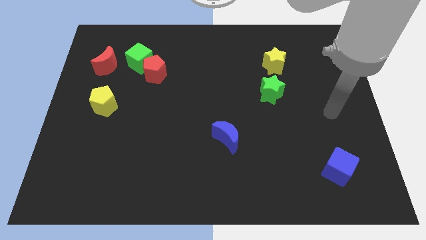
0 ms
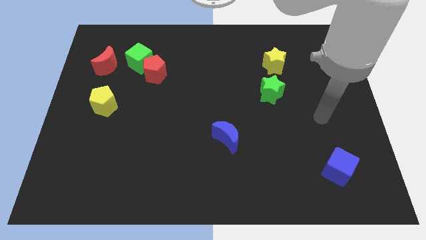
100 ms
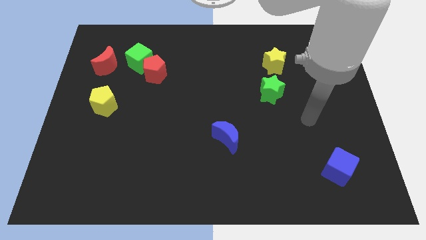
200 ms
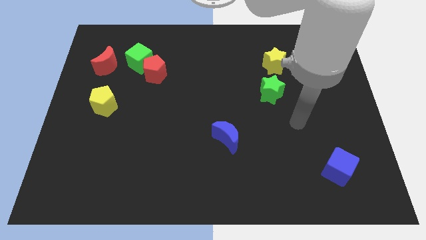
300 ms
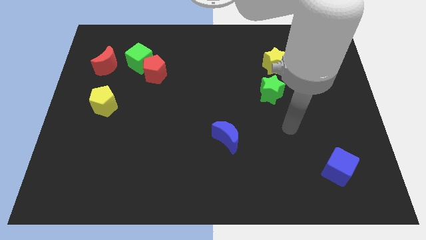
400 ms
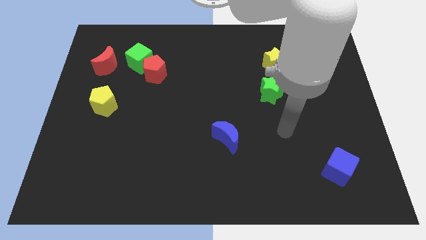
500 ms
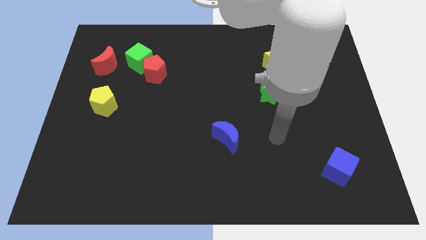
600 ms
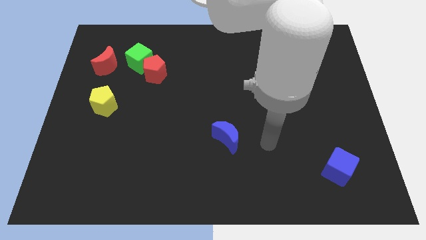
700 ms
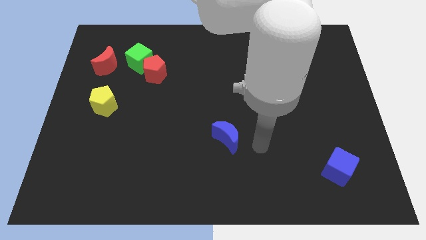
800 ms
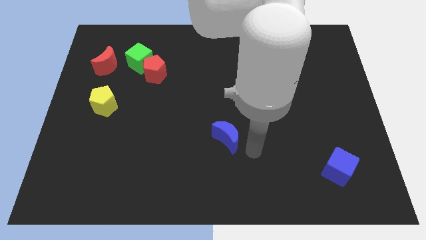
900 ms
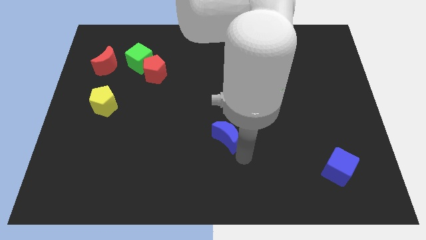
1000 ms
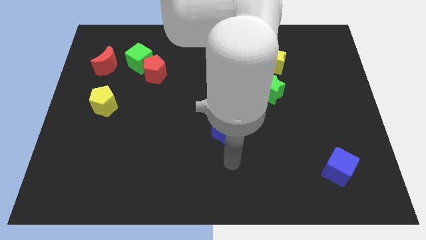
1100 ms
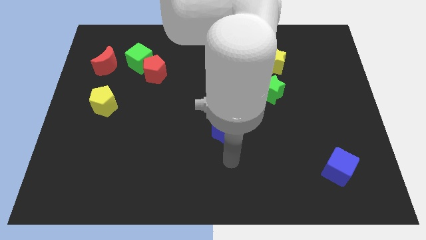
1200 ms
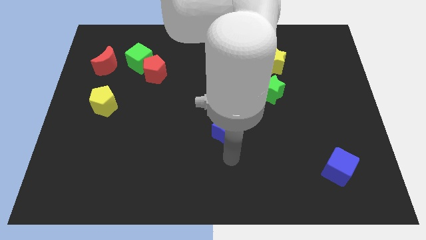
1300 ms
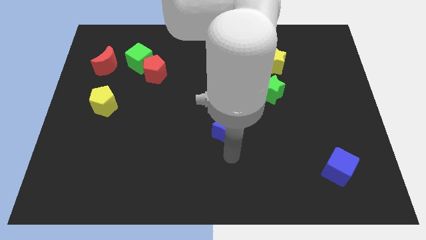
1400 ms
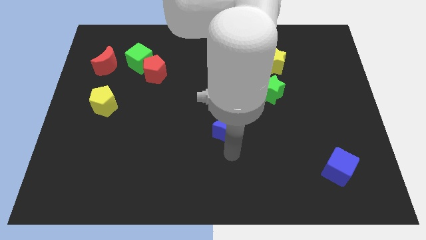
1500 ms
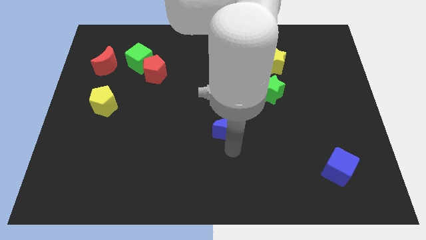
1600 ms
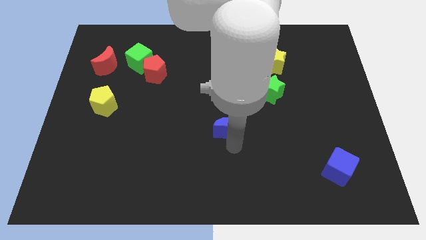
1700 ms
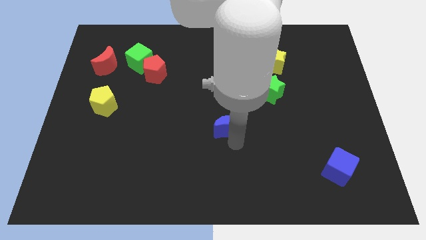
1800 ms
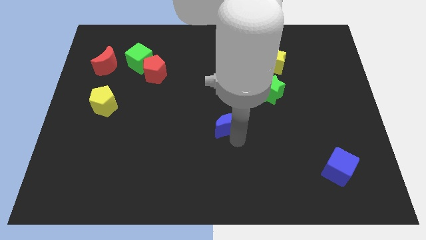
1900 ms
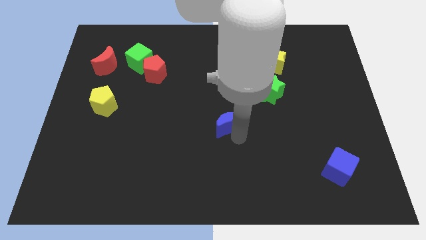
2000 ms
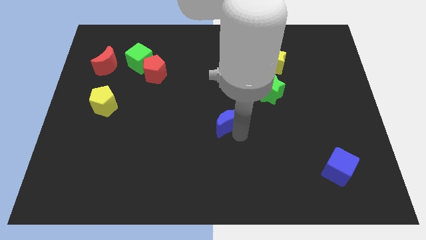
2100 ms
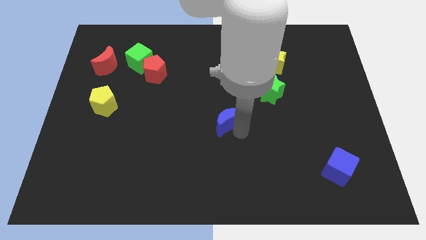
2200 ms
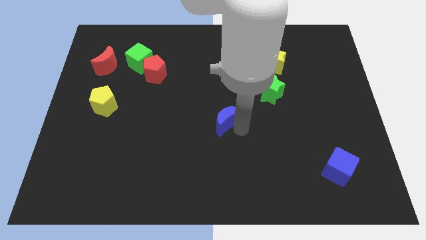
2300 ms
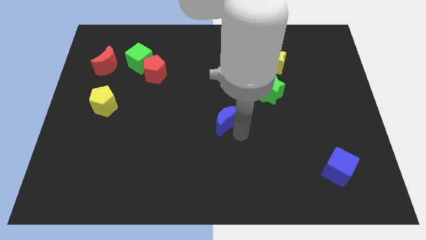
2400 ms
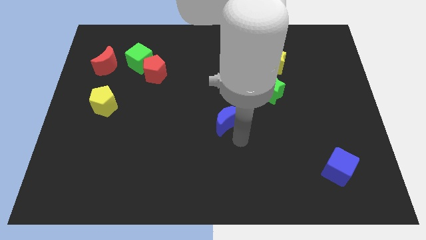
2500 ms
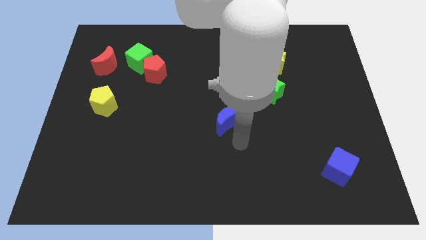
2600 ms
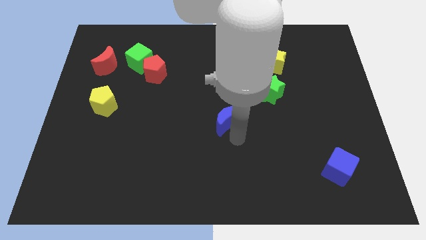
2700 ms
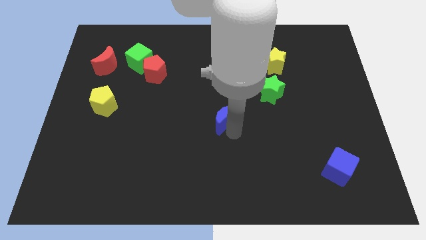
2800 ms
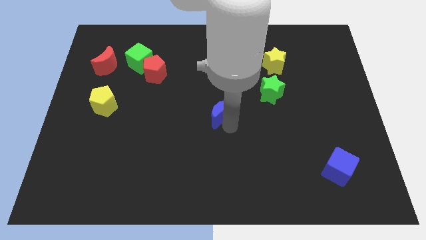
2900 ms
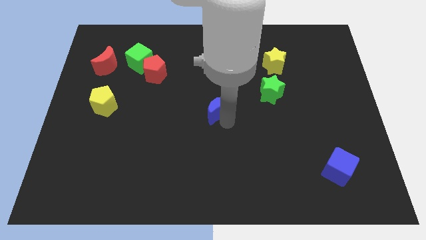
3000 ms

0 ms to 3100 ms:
slide the blue moon upwards a little

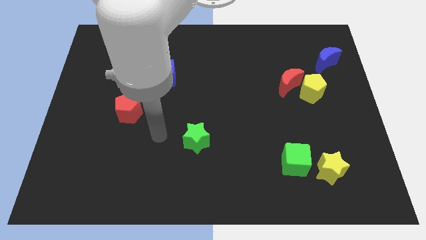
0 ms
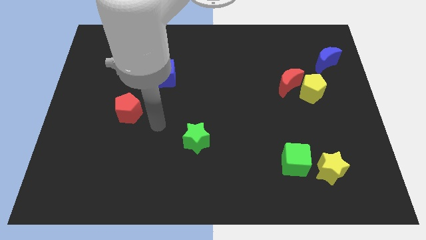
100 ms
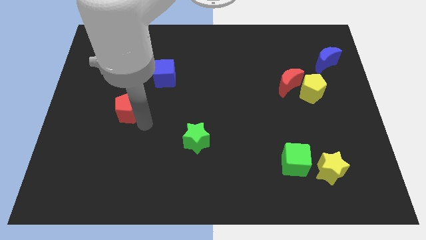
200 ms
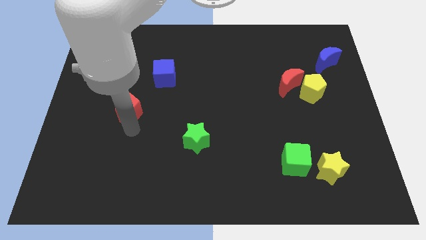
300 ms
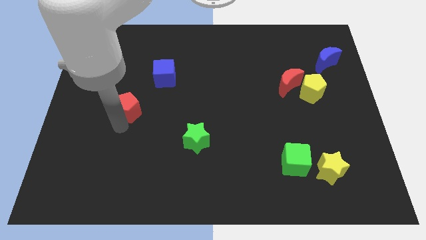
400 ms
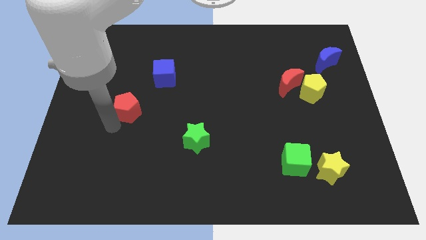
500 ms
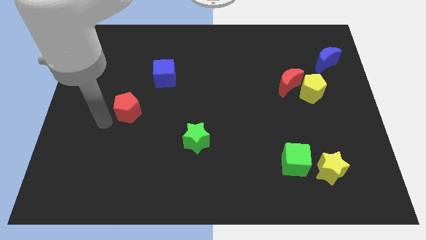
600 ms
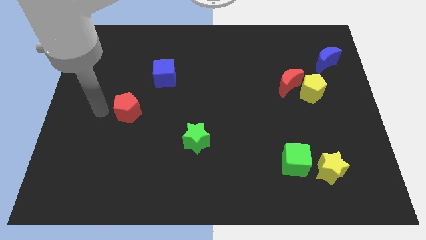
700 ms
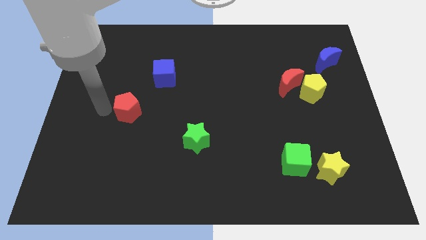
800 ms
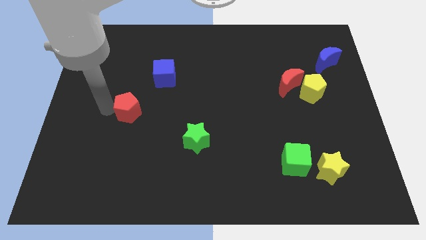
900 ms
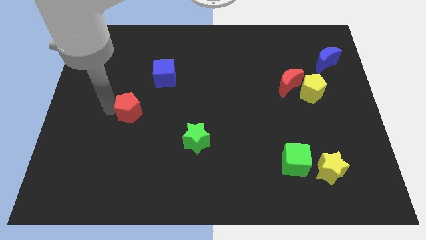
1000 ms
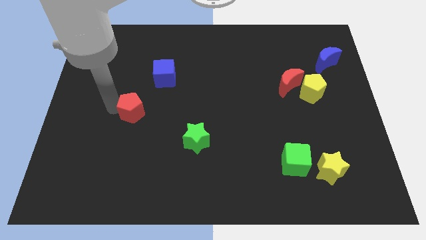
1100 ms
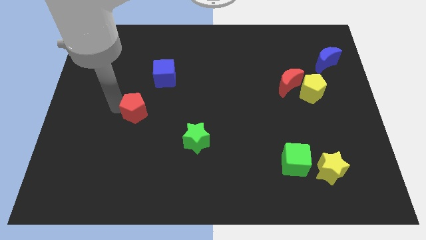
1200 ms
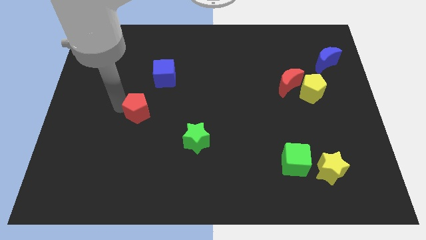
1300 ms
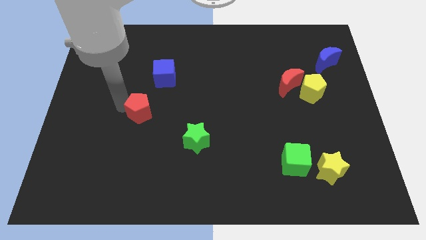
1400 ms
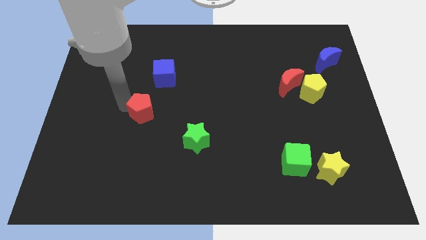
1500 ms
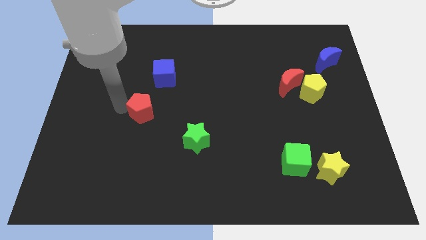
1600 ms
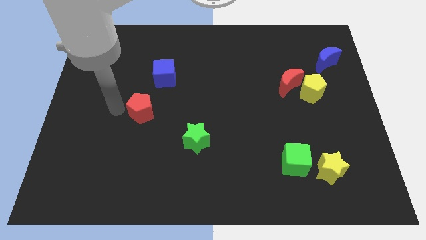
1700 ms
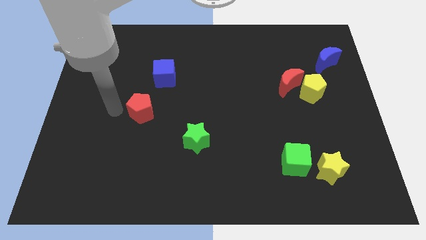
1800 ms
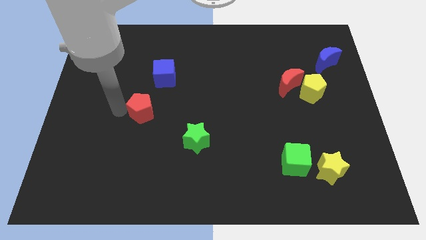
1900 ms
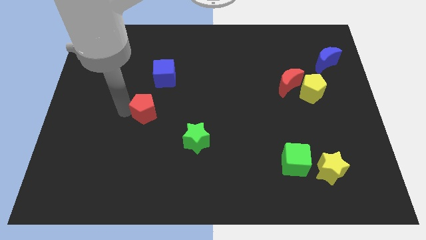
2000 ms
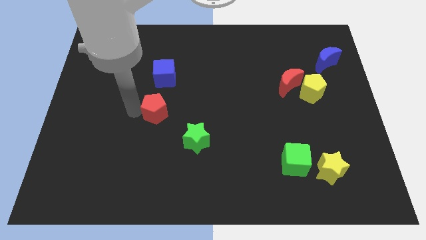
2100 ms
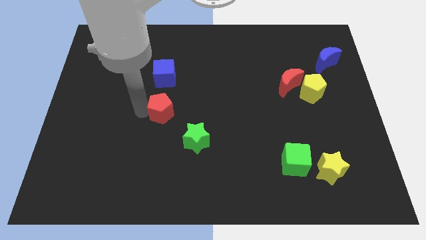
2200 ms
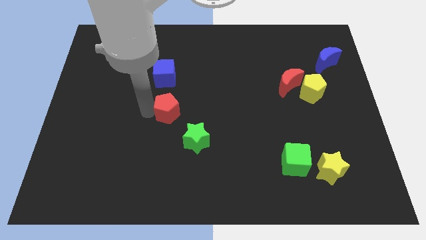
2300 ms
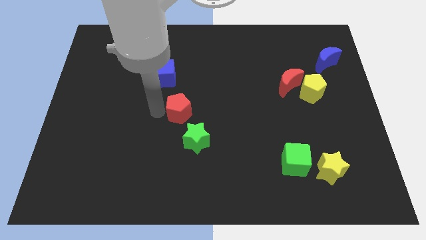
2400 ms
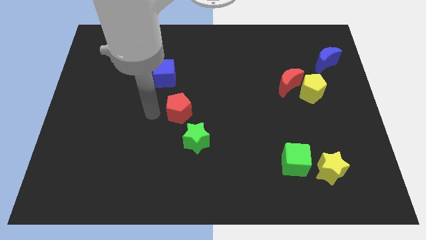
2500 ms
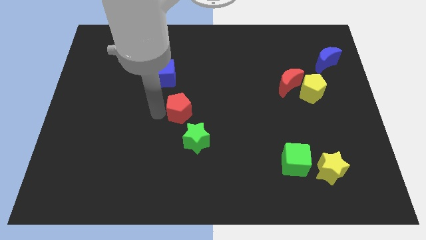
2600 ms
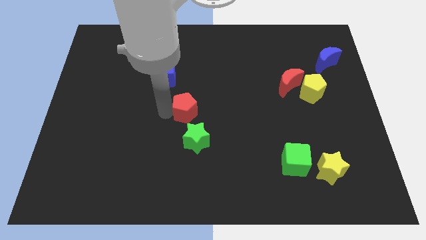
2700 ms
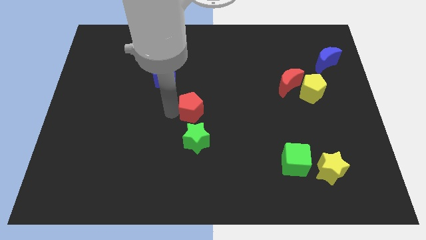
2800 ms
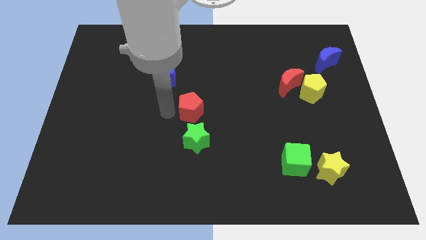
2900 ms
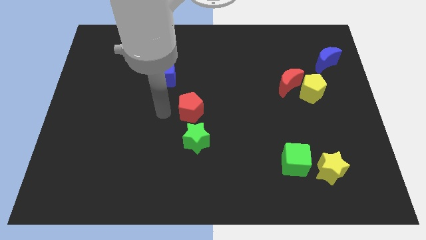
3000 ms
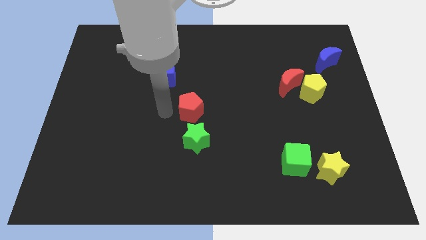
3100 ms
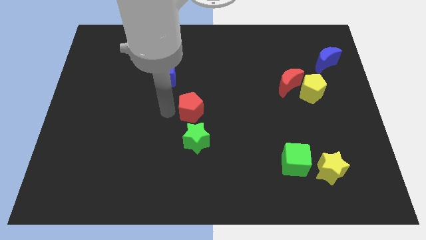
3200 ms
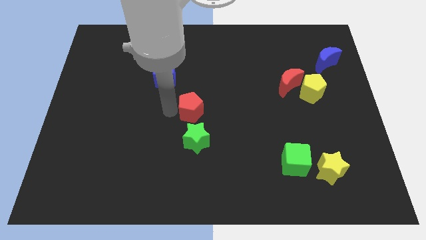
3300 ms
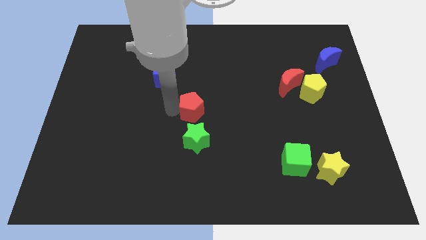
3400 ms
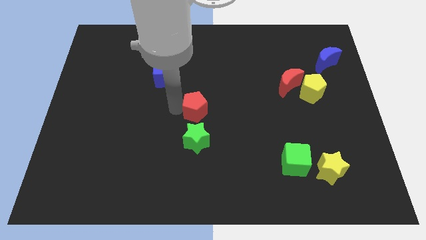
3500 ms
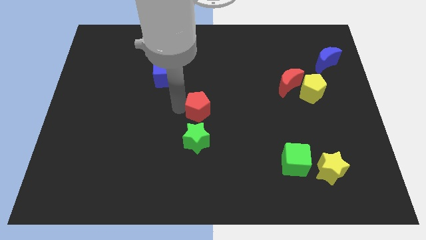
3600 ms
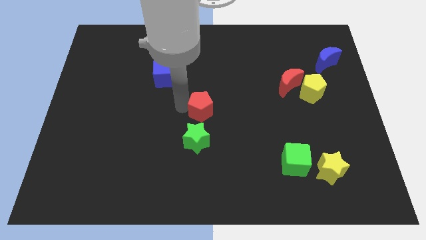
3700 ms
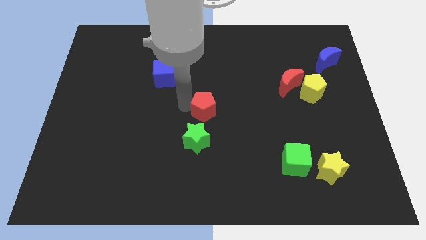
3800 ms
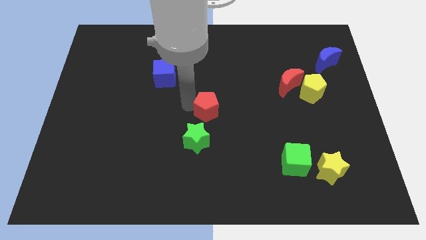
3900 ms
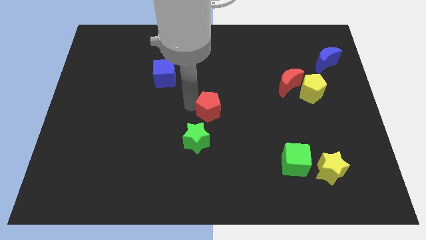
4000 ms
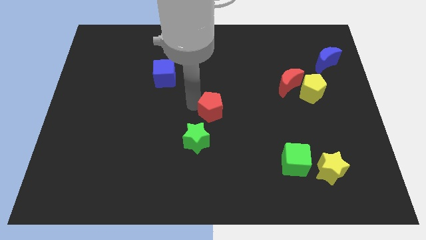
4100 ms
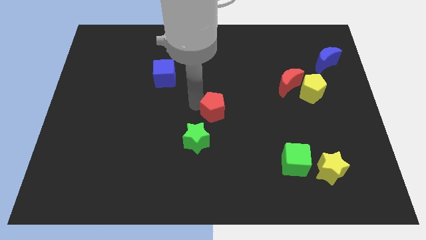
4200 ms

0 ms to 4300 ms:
slide the red pentagon right

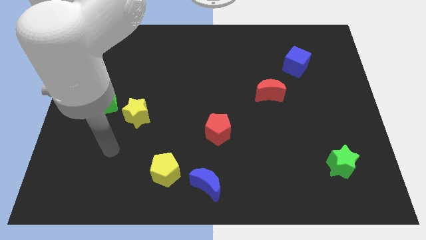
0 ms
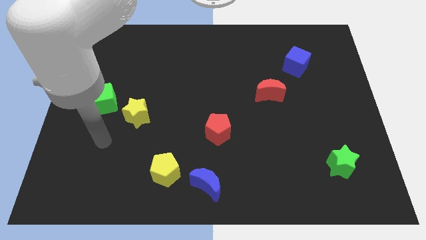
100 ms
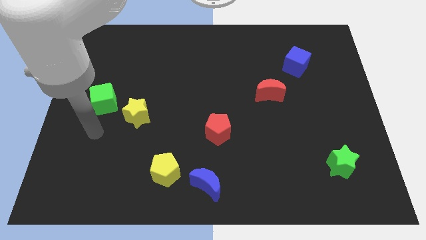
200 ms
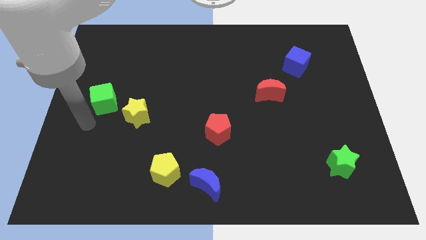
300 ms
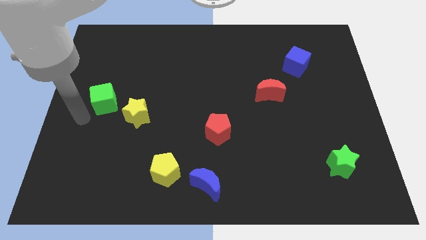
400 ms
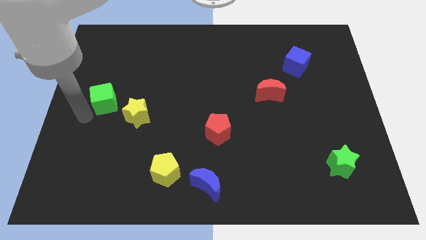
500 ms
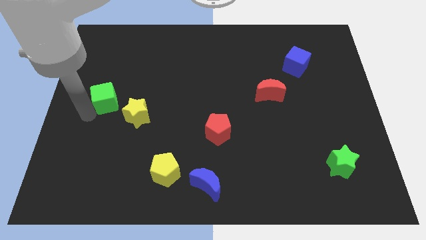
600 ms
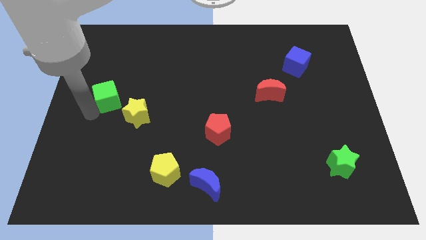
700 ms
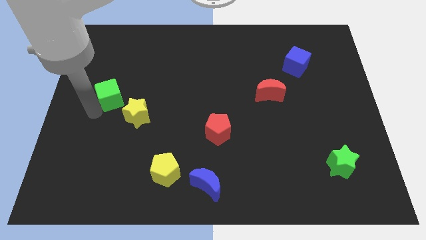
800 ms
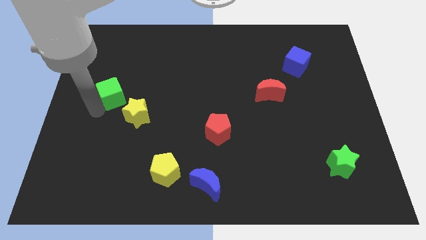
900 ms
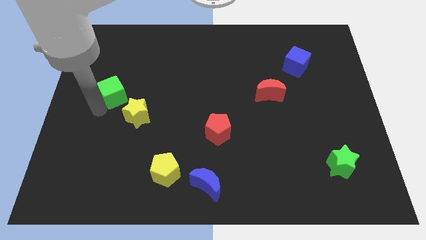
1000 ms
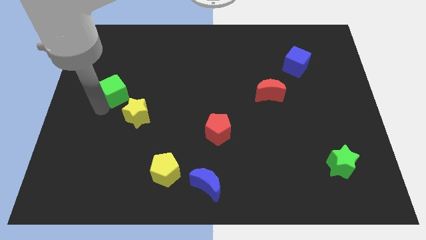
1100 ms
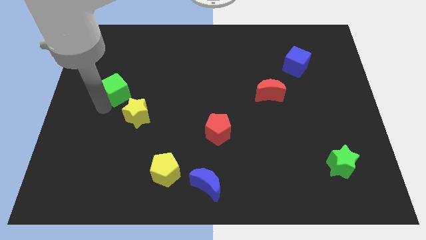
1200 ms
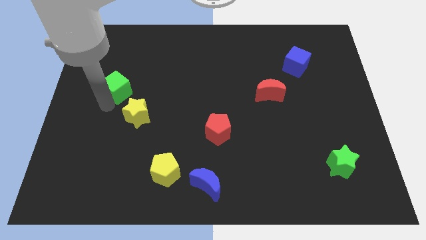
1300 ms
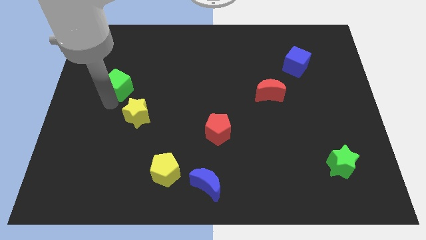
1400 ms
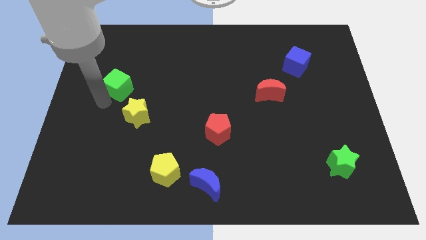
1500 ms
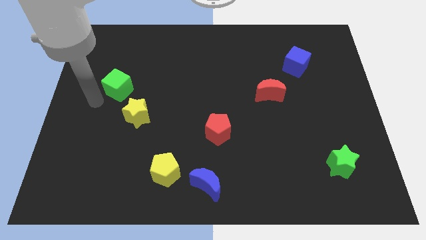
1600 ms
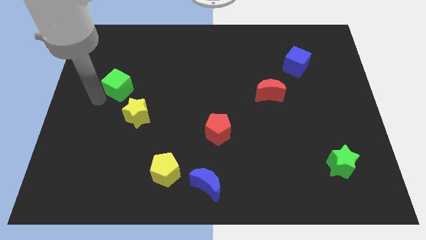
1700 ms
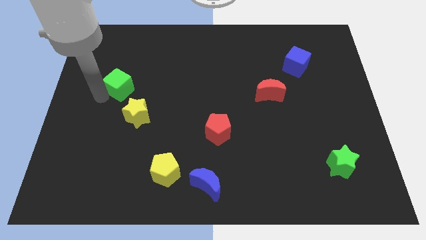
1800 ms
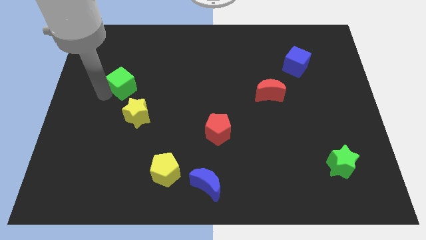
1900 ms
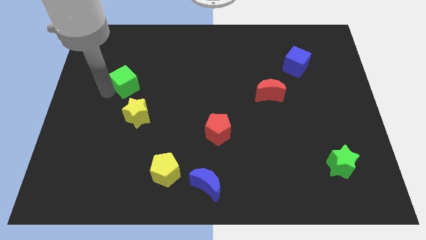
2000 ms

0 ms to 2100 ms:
slightly move the green cube up and then right
